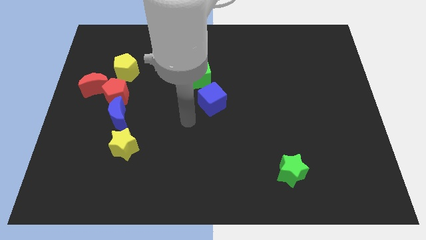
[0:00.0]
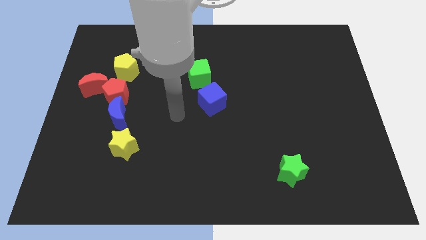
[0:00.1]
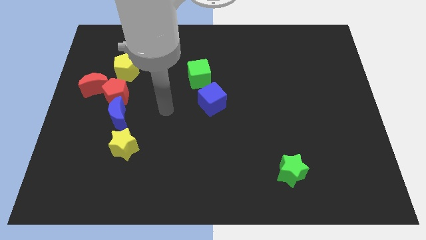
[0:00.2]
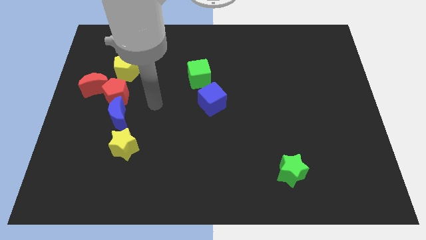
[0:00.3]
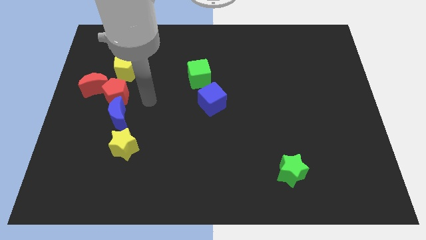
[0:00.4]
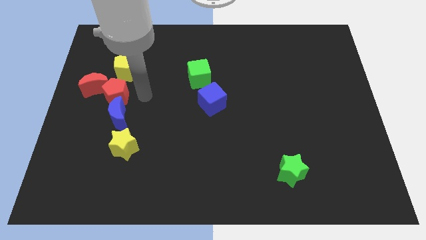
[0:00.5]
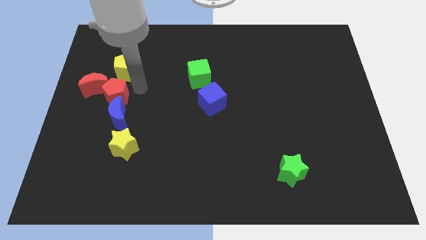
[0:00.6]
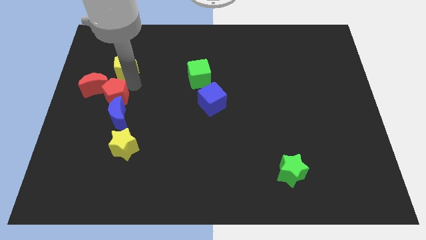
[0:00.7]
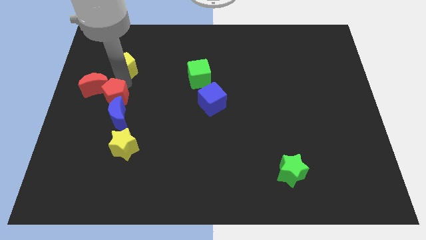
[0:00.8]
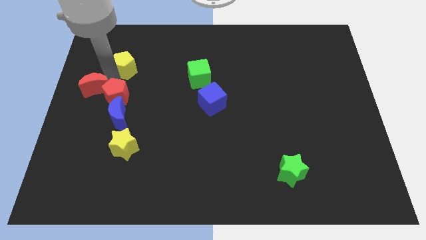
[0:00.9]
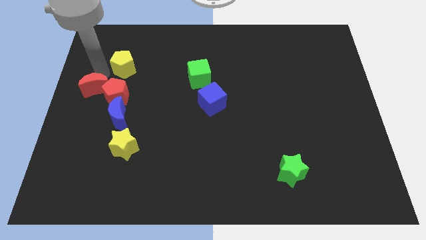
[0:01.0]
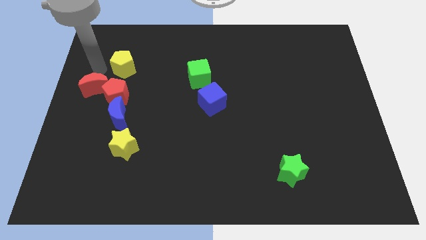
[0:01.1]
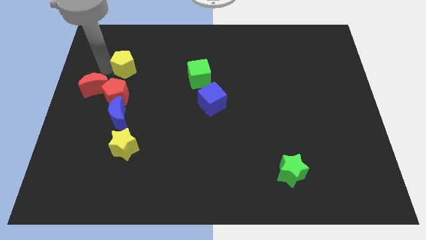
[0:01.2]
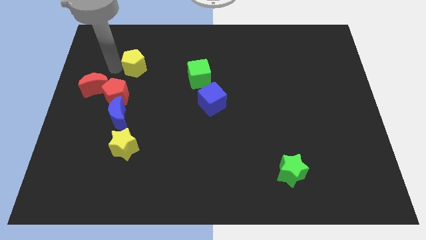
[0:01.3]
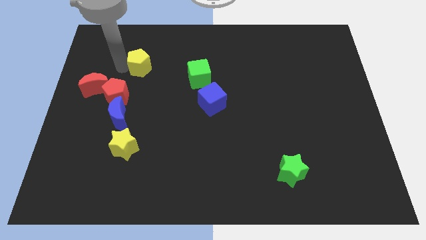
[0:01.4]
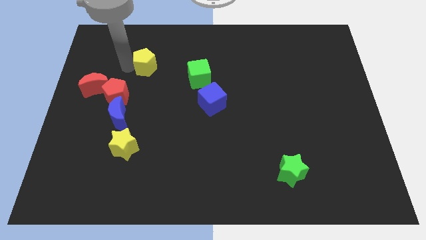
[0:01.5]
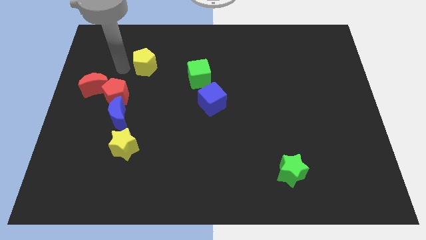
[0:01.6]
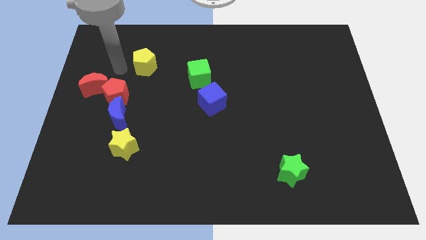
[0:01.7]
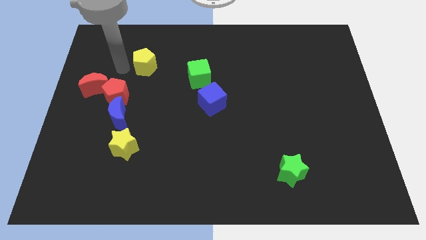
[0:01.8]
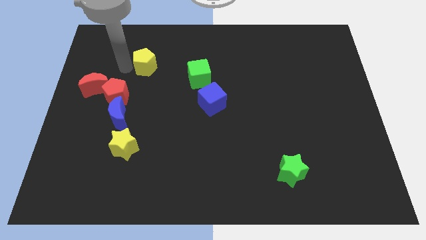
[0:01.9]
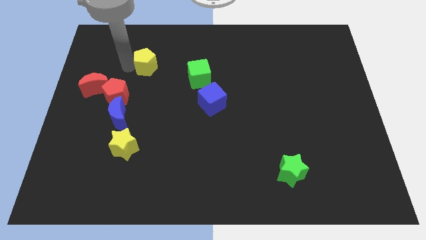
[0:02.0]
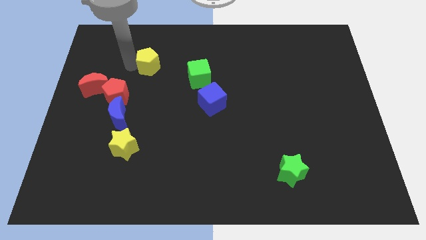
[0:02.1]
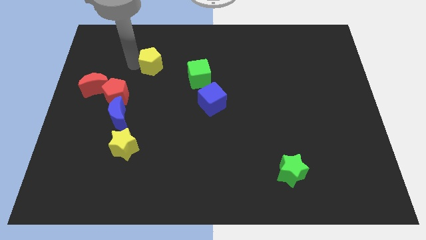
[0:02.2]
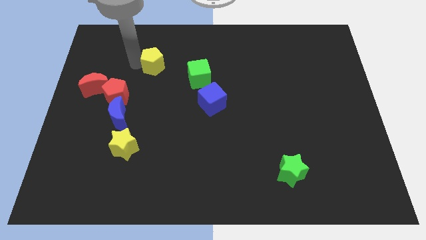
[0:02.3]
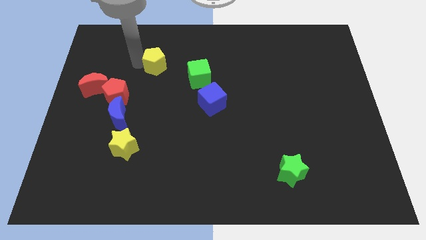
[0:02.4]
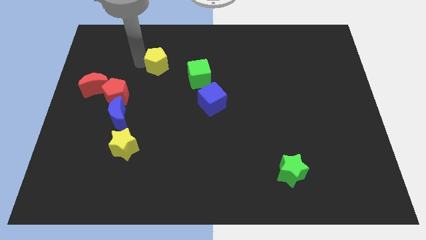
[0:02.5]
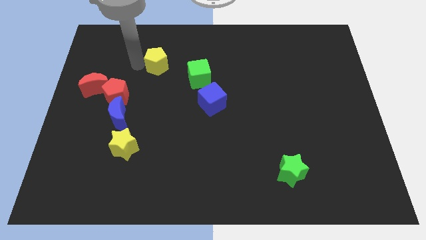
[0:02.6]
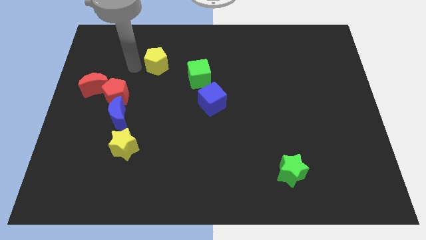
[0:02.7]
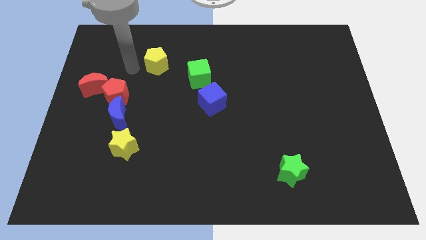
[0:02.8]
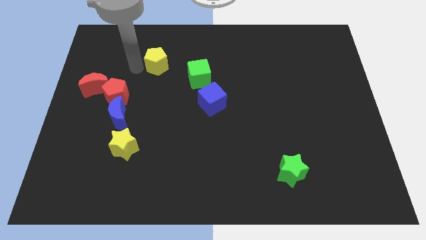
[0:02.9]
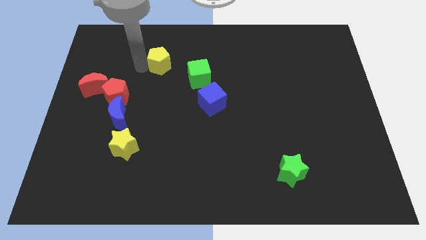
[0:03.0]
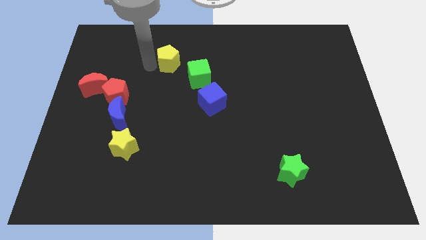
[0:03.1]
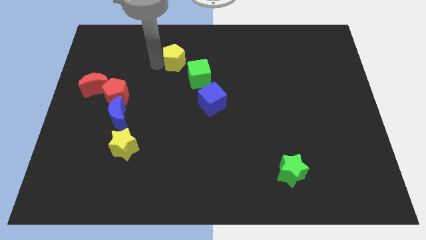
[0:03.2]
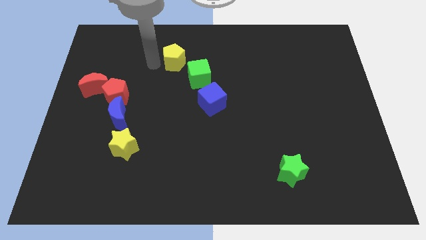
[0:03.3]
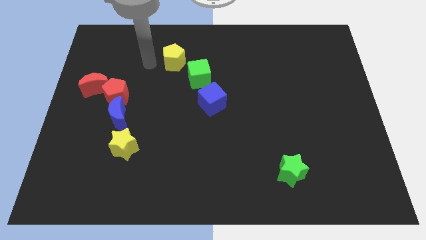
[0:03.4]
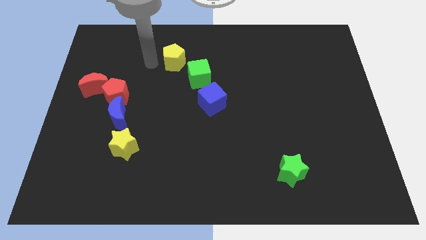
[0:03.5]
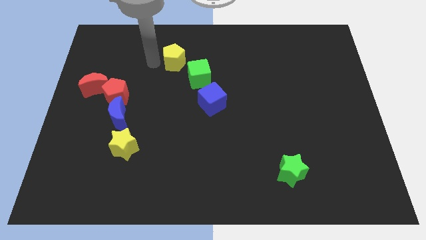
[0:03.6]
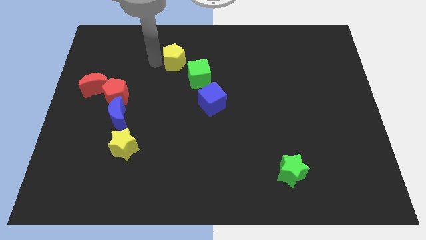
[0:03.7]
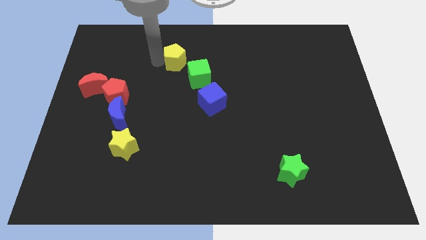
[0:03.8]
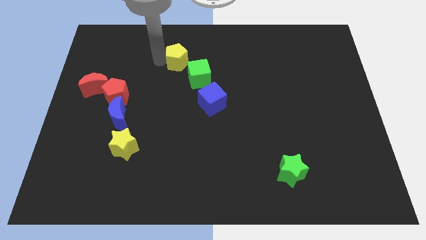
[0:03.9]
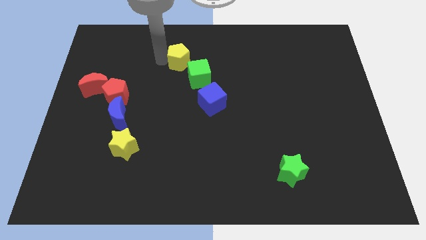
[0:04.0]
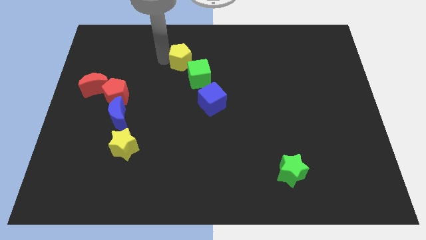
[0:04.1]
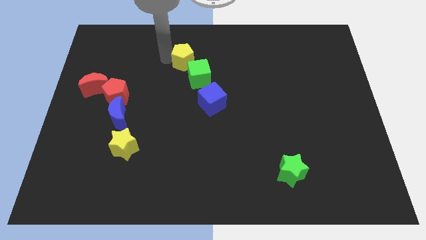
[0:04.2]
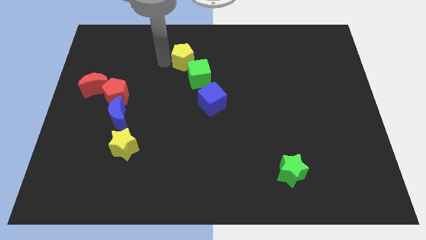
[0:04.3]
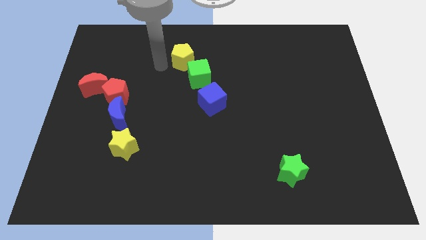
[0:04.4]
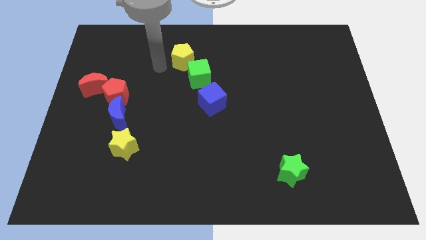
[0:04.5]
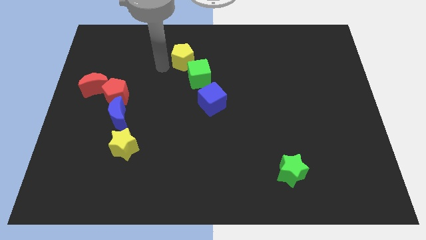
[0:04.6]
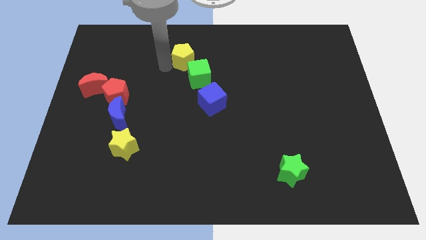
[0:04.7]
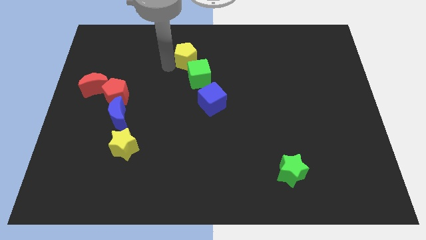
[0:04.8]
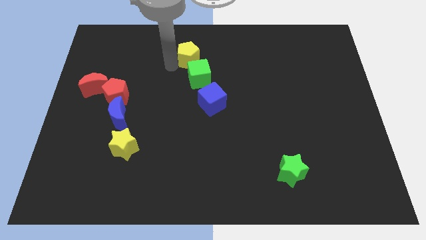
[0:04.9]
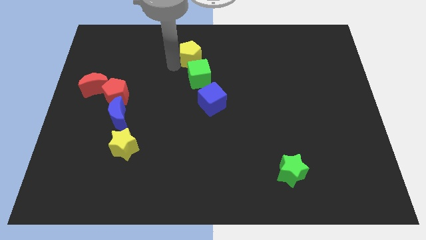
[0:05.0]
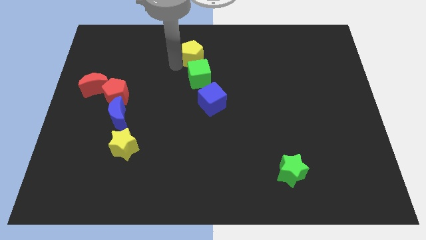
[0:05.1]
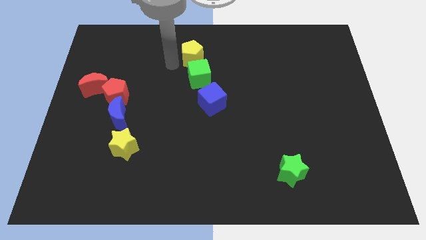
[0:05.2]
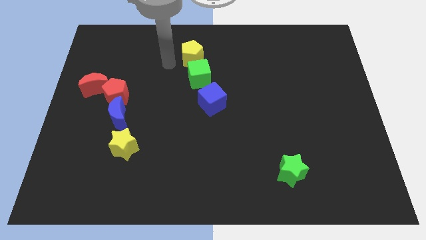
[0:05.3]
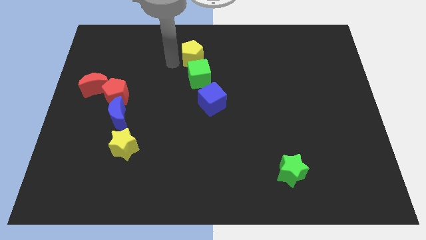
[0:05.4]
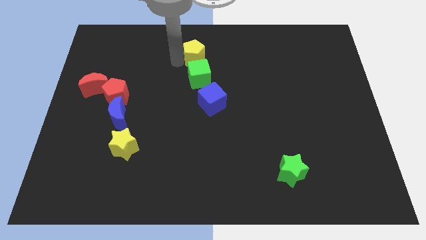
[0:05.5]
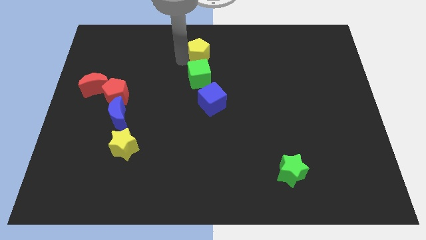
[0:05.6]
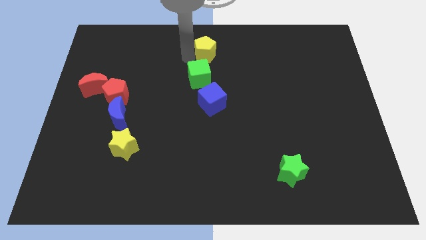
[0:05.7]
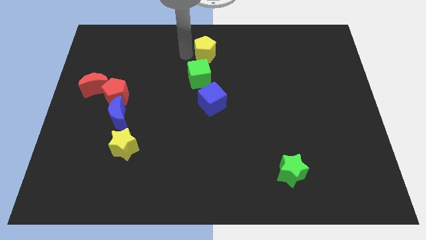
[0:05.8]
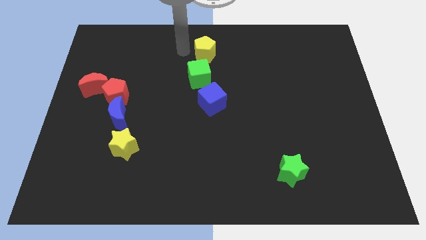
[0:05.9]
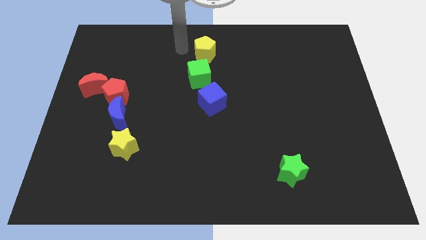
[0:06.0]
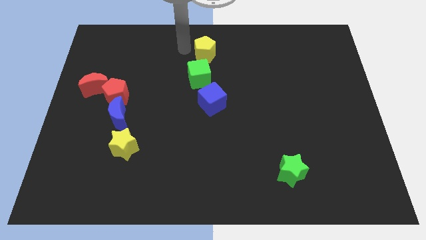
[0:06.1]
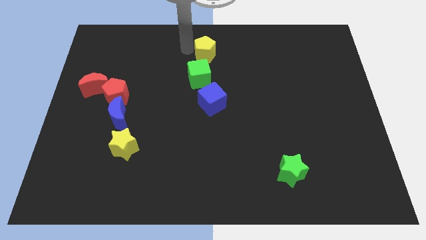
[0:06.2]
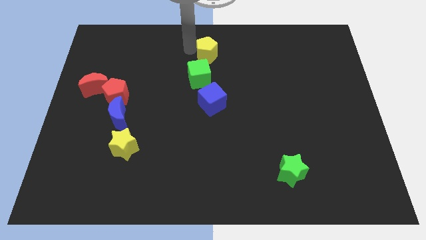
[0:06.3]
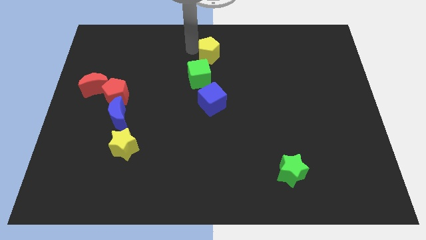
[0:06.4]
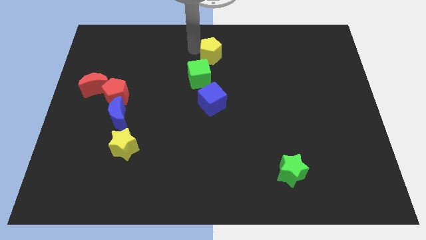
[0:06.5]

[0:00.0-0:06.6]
slide the yellow pentagon to the right

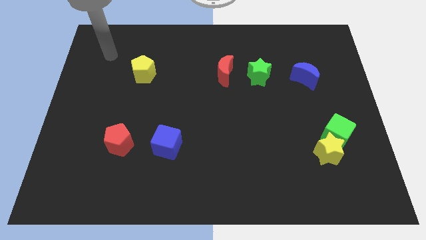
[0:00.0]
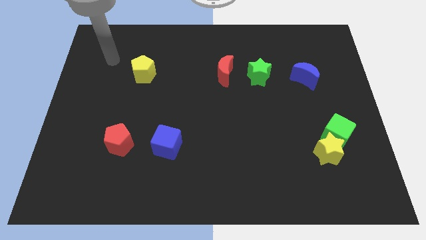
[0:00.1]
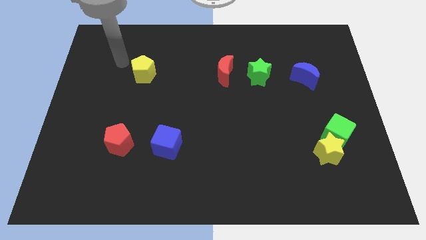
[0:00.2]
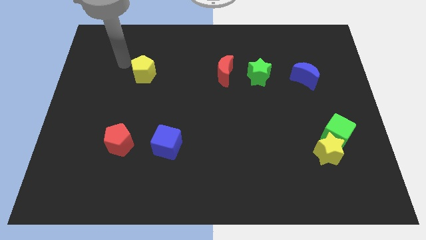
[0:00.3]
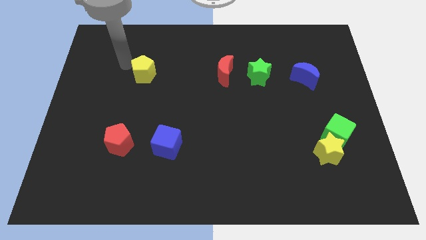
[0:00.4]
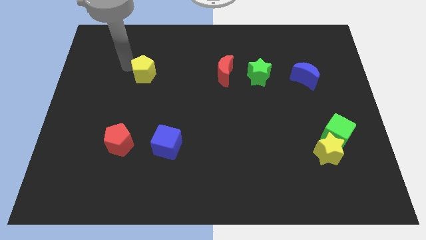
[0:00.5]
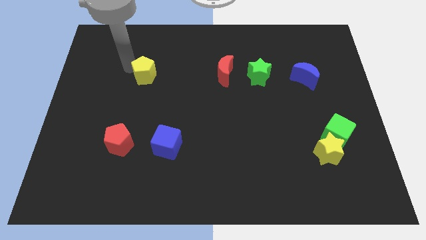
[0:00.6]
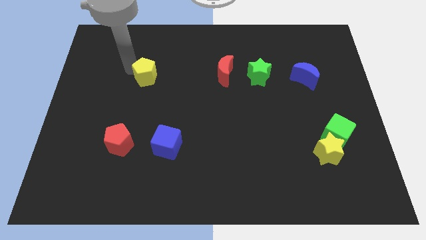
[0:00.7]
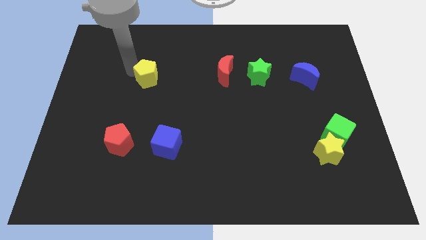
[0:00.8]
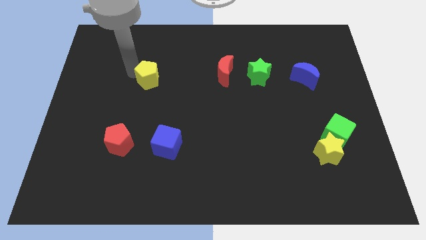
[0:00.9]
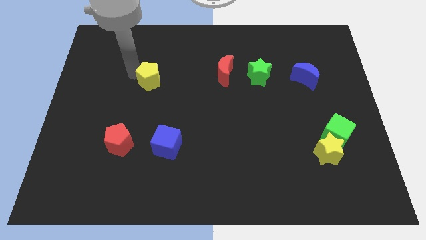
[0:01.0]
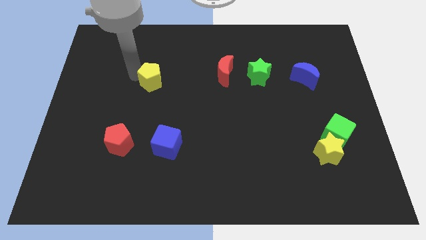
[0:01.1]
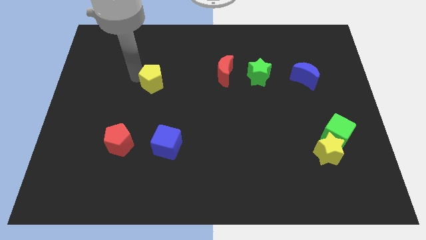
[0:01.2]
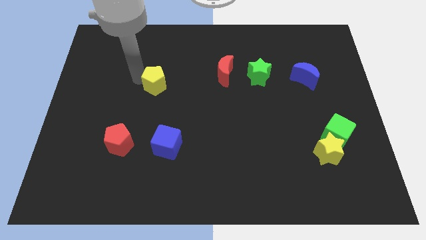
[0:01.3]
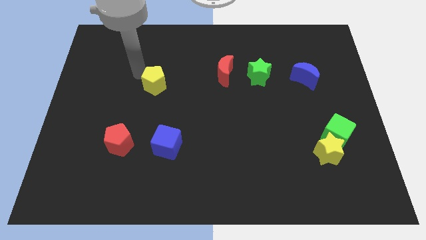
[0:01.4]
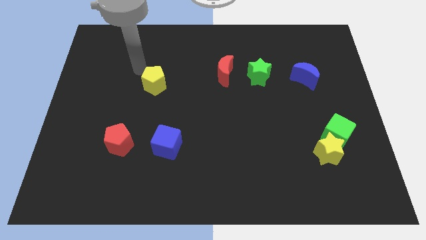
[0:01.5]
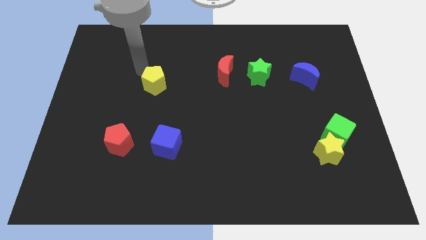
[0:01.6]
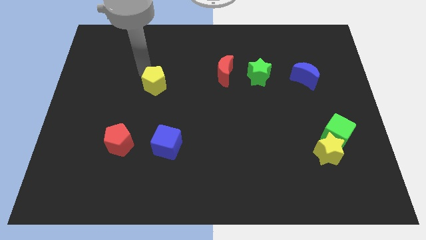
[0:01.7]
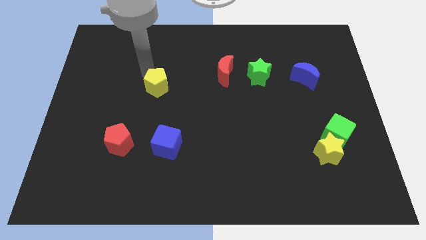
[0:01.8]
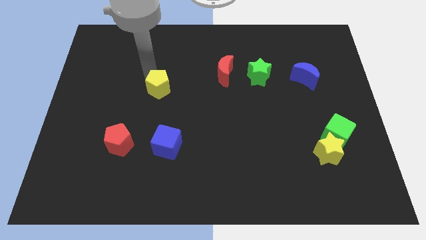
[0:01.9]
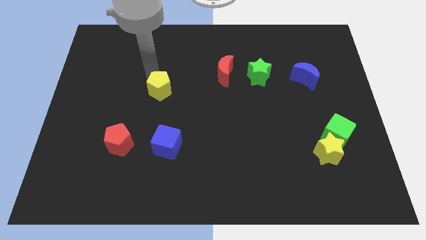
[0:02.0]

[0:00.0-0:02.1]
move the yellow pentagon slightly downwards and then to the right
